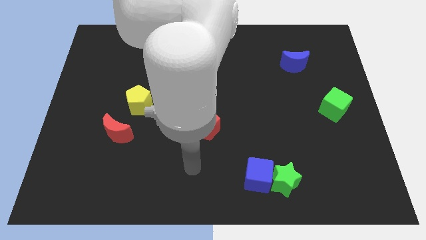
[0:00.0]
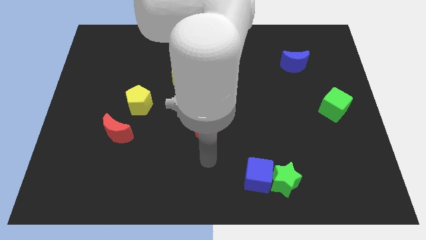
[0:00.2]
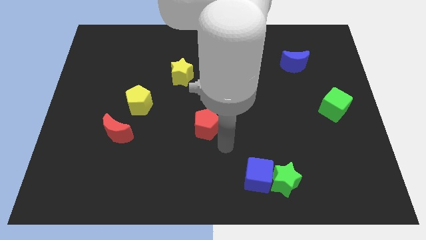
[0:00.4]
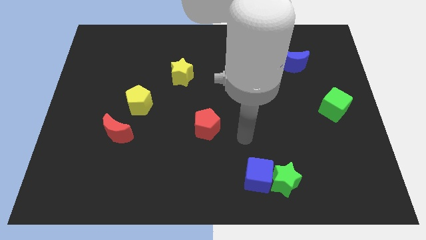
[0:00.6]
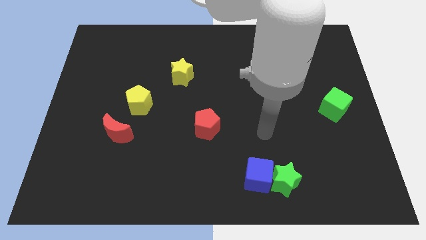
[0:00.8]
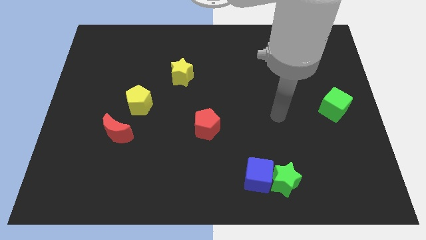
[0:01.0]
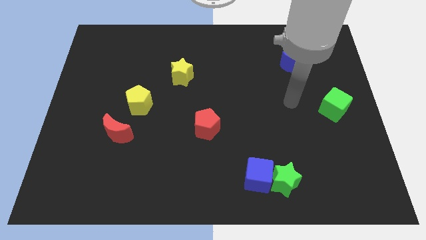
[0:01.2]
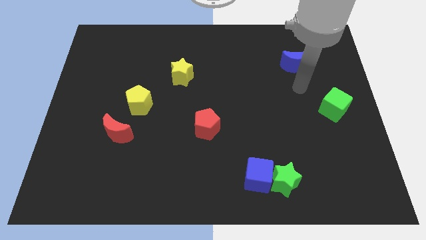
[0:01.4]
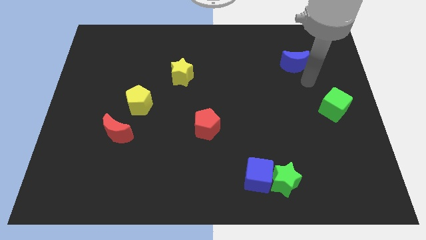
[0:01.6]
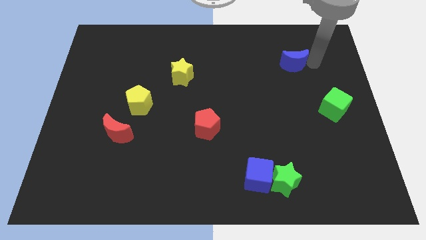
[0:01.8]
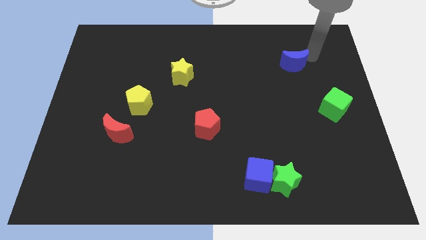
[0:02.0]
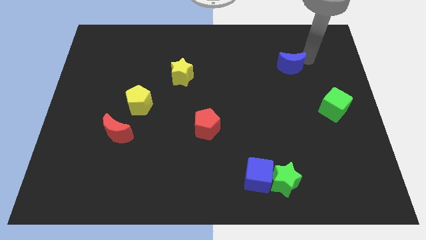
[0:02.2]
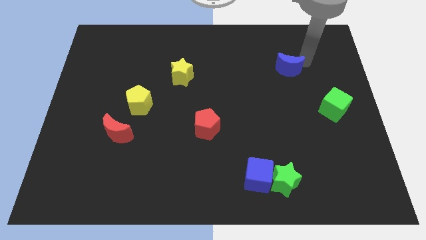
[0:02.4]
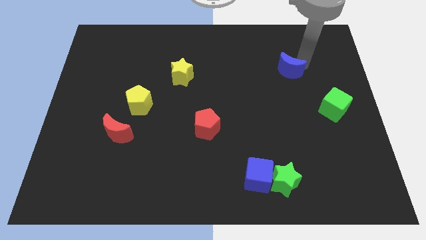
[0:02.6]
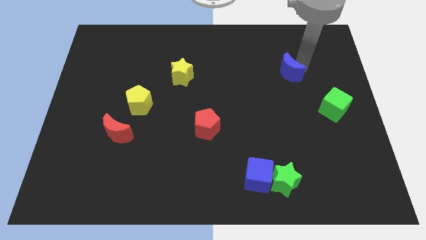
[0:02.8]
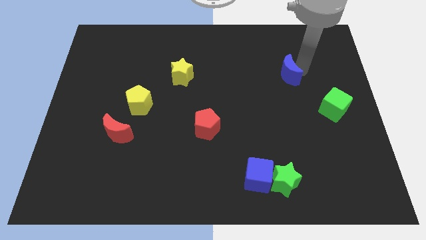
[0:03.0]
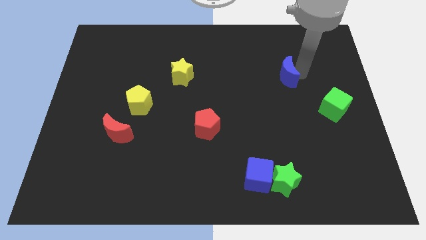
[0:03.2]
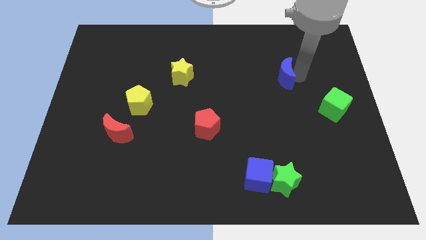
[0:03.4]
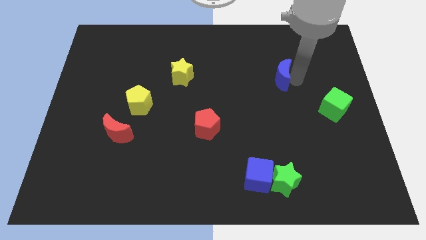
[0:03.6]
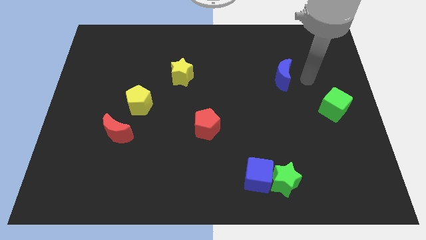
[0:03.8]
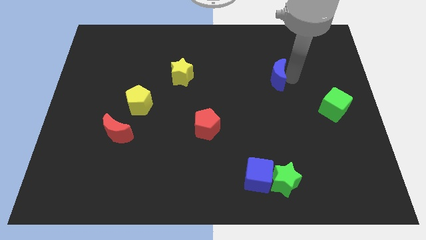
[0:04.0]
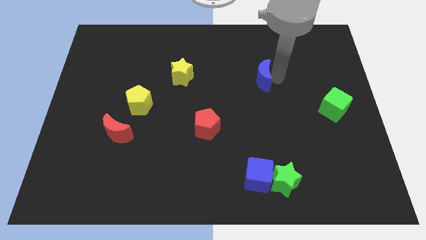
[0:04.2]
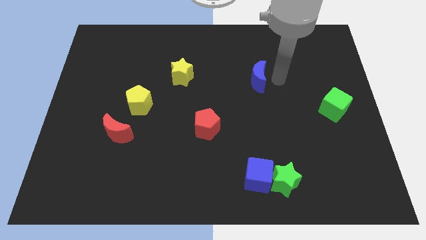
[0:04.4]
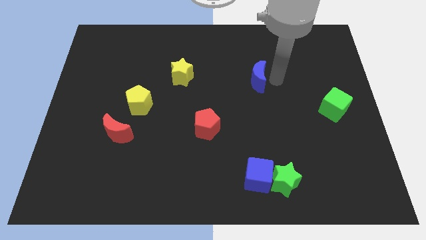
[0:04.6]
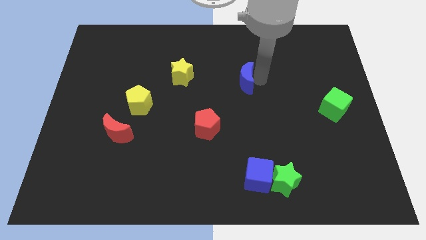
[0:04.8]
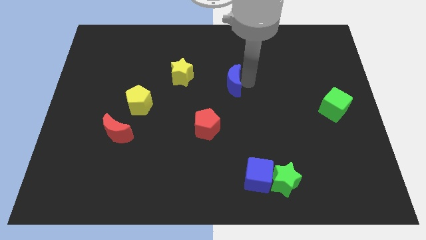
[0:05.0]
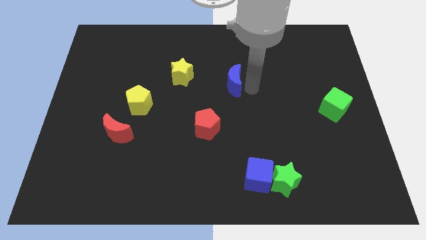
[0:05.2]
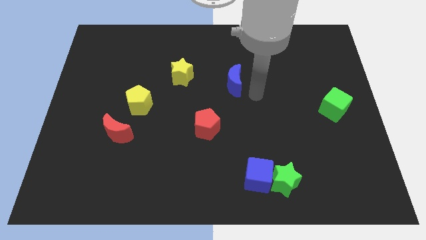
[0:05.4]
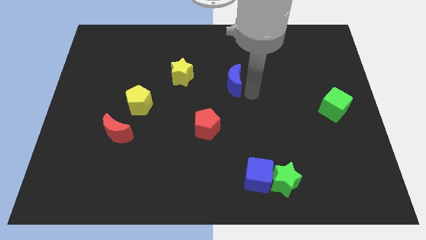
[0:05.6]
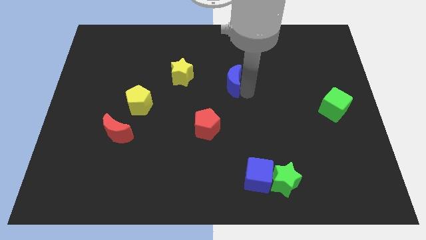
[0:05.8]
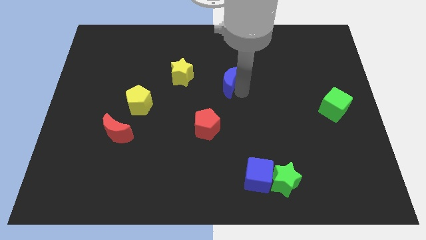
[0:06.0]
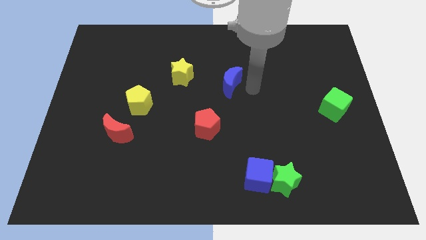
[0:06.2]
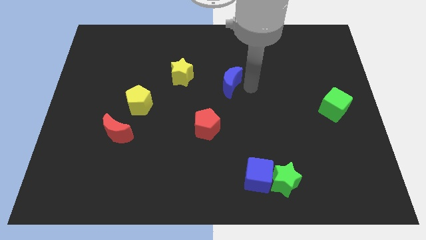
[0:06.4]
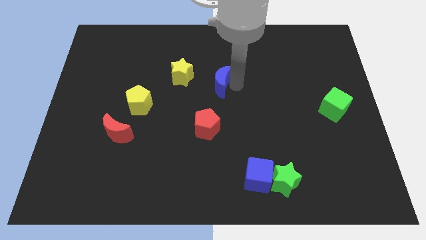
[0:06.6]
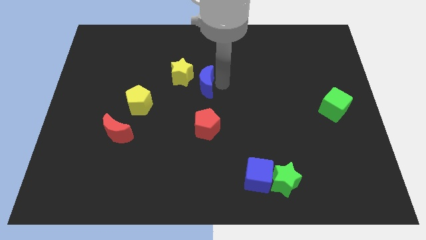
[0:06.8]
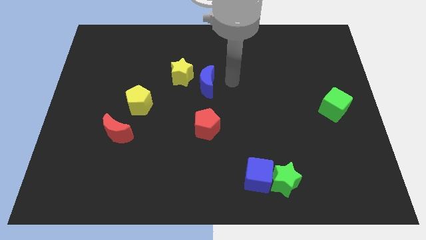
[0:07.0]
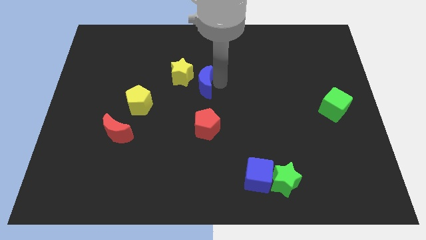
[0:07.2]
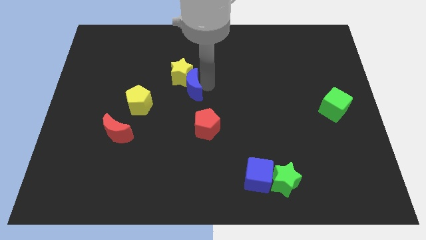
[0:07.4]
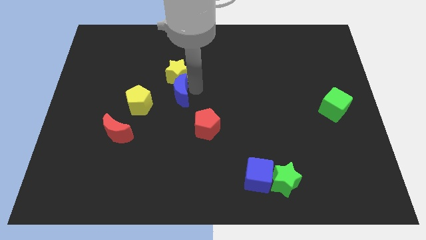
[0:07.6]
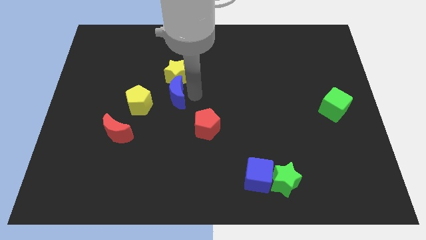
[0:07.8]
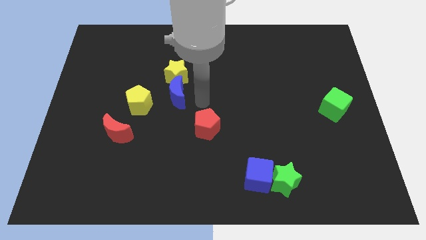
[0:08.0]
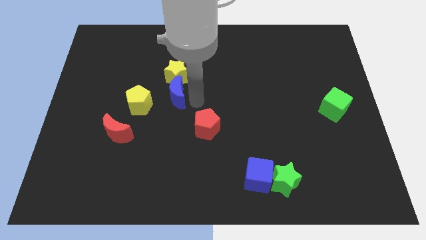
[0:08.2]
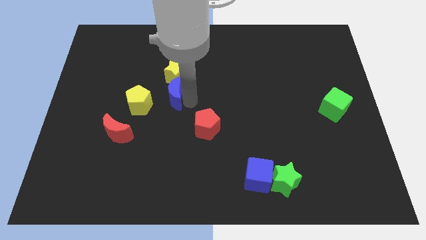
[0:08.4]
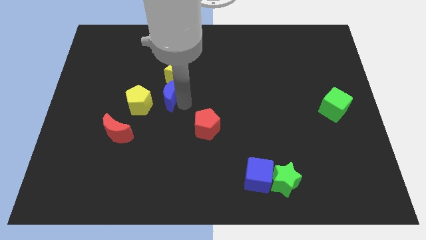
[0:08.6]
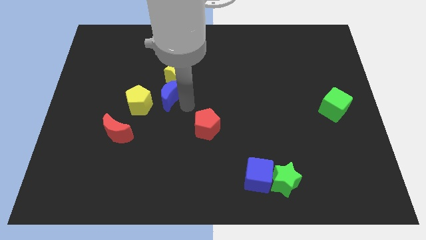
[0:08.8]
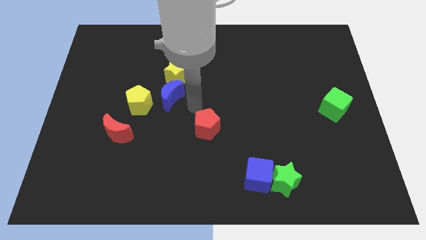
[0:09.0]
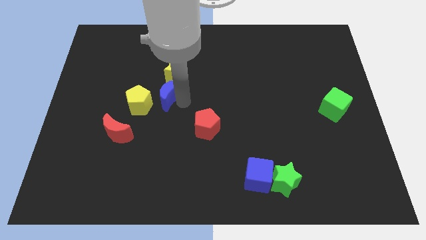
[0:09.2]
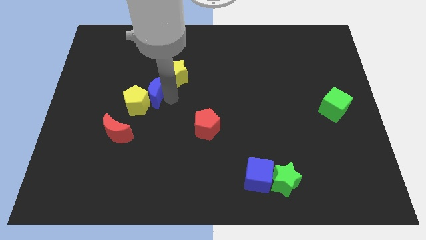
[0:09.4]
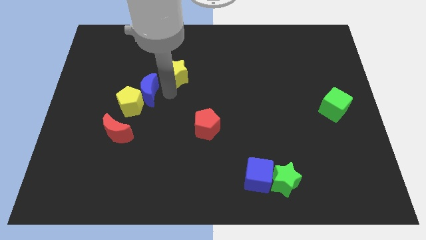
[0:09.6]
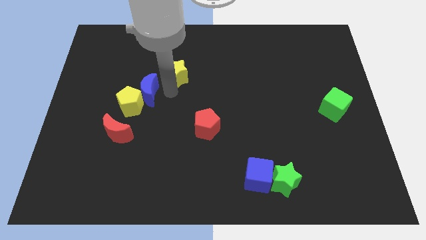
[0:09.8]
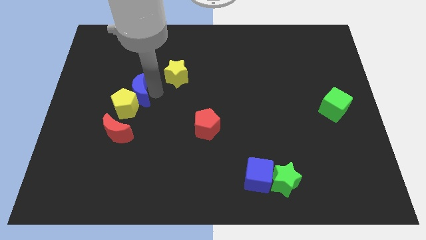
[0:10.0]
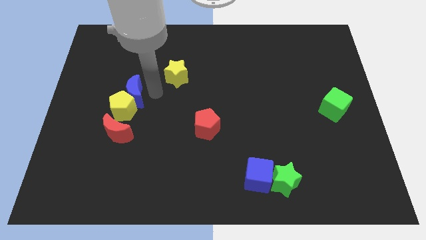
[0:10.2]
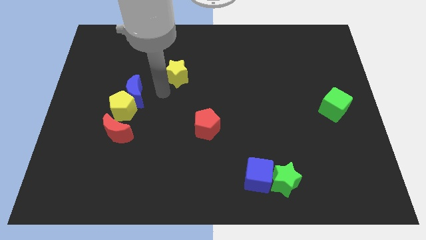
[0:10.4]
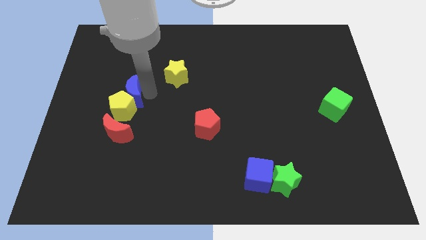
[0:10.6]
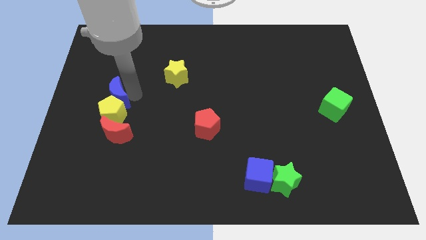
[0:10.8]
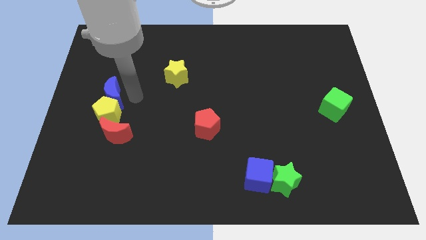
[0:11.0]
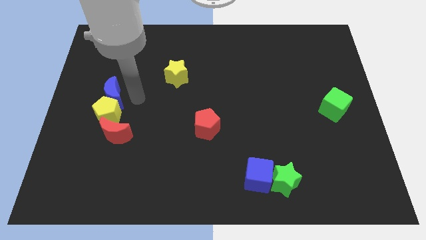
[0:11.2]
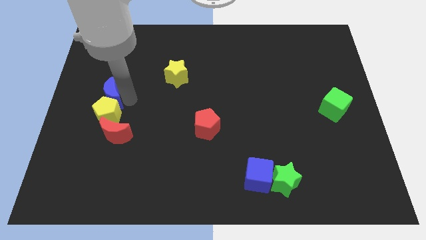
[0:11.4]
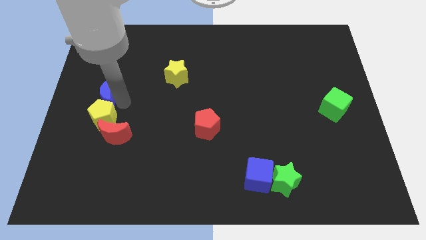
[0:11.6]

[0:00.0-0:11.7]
slide the blue moon to the left side of the board

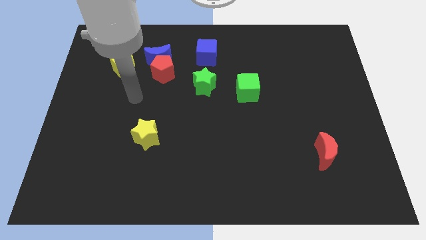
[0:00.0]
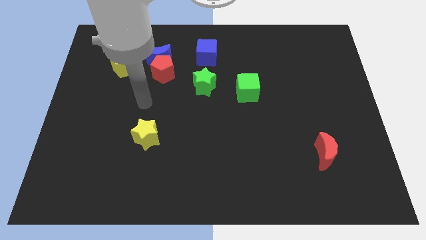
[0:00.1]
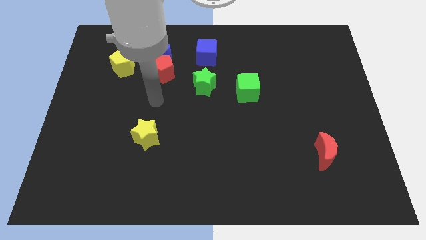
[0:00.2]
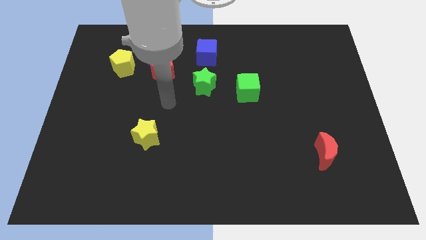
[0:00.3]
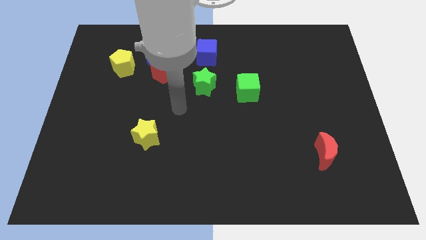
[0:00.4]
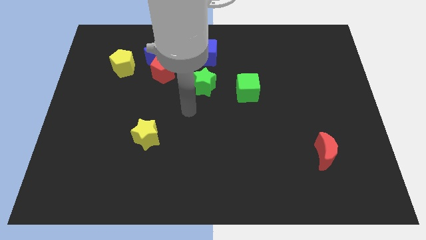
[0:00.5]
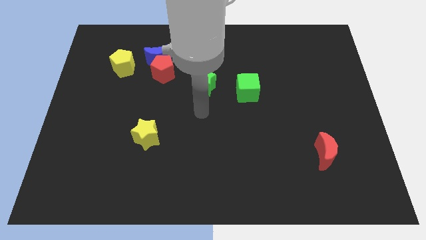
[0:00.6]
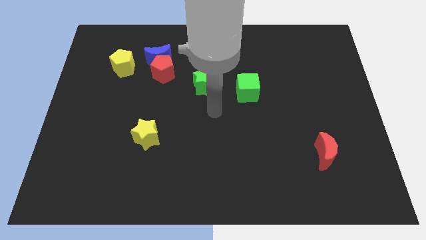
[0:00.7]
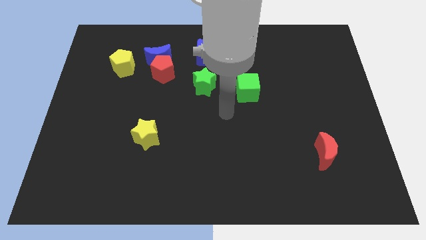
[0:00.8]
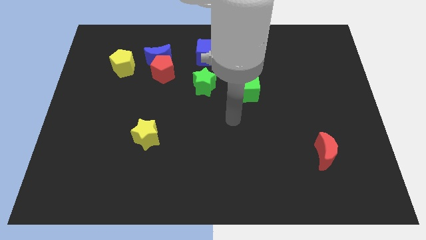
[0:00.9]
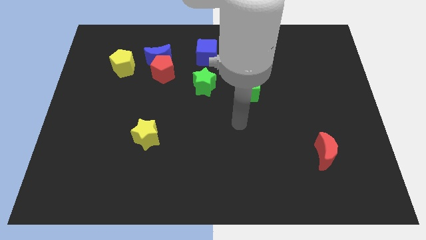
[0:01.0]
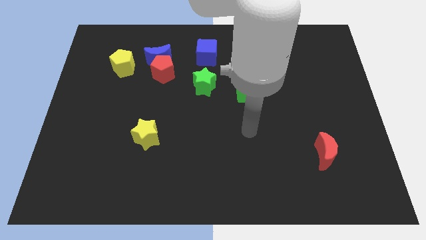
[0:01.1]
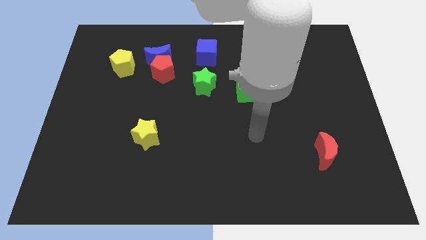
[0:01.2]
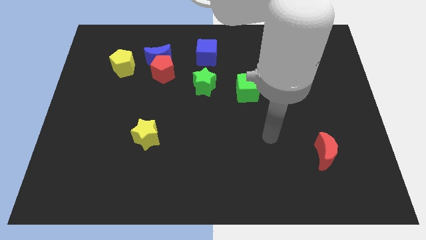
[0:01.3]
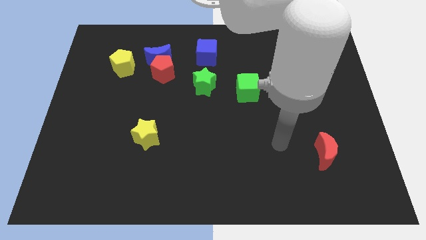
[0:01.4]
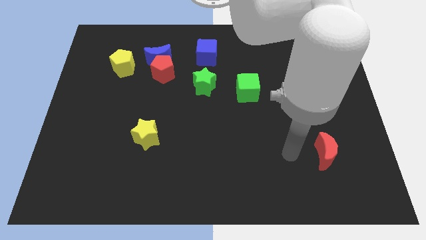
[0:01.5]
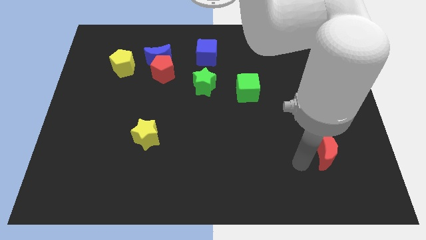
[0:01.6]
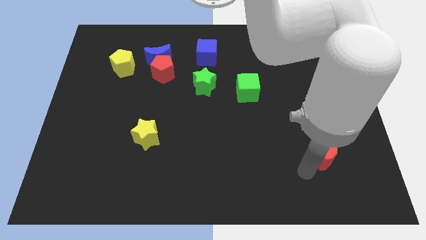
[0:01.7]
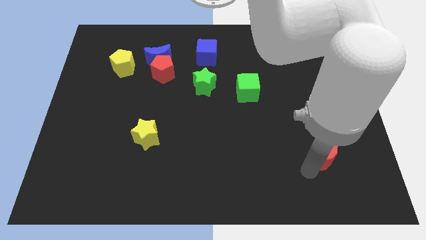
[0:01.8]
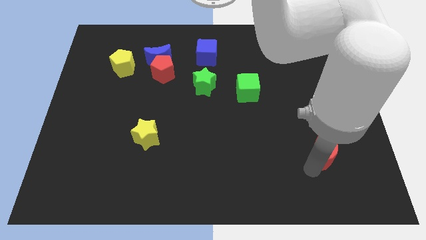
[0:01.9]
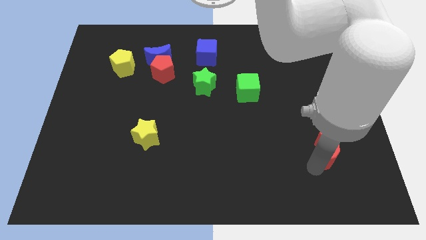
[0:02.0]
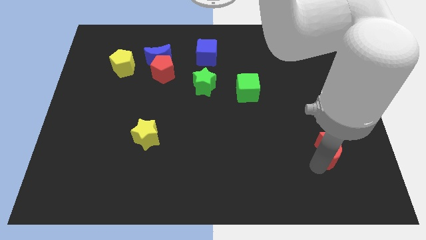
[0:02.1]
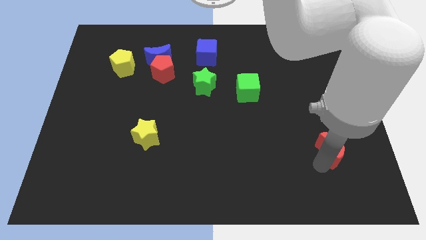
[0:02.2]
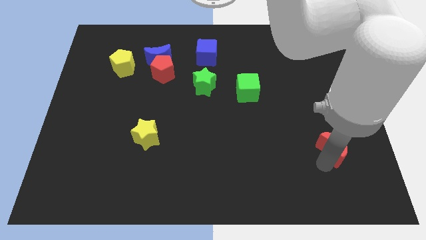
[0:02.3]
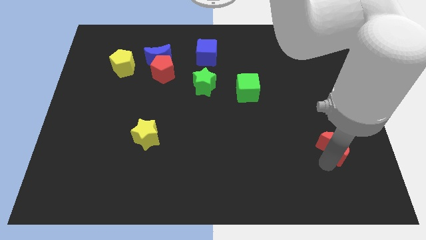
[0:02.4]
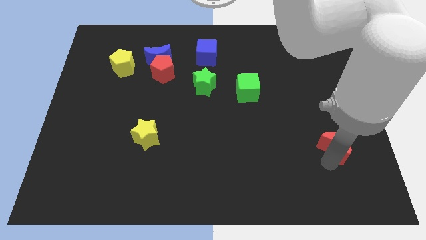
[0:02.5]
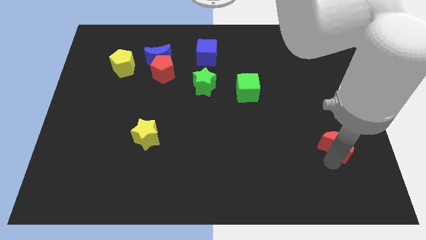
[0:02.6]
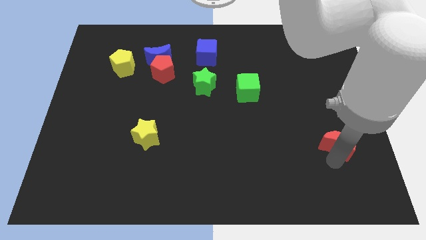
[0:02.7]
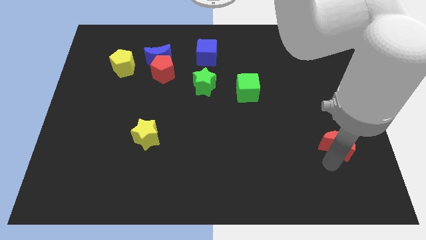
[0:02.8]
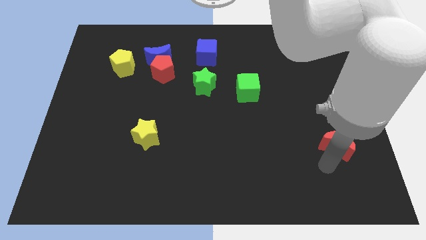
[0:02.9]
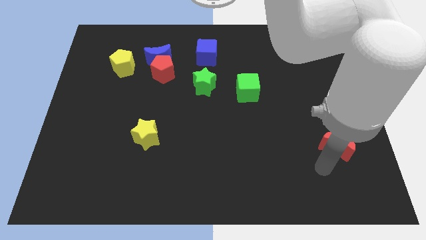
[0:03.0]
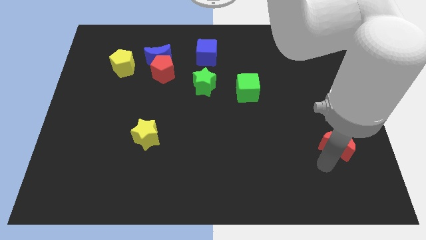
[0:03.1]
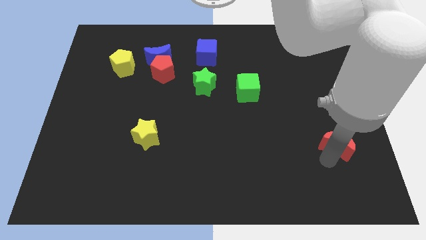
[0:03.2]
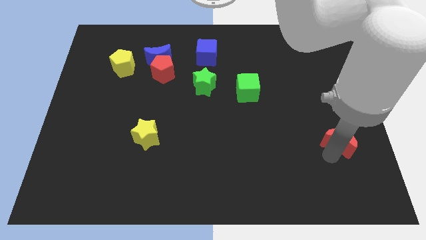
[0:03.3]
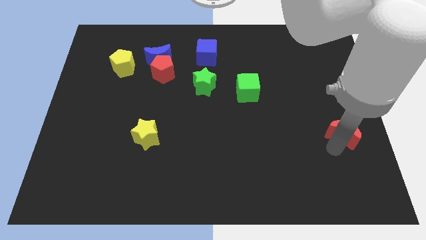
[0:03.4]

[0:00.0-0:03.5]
slide the red moon to the right side
